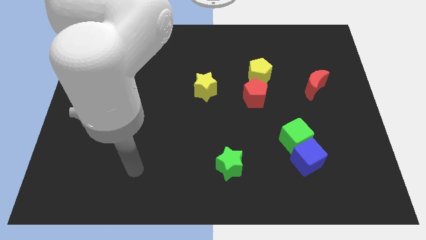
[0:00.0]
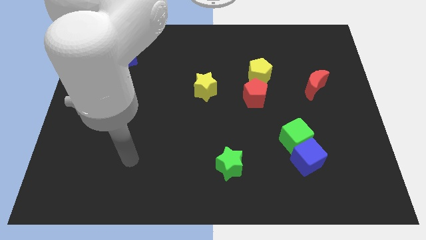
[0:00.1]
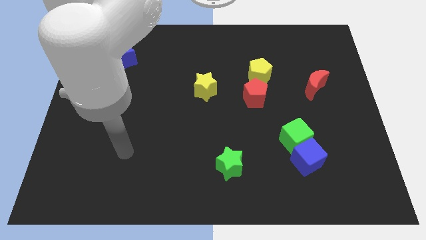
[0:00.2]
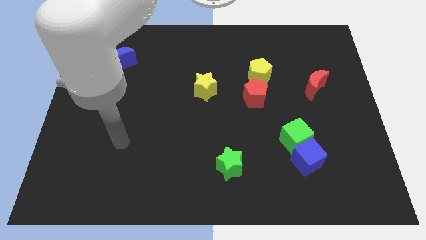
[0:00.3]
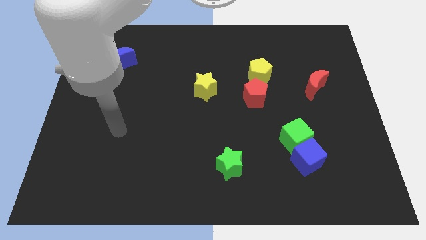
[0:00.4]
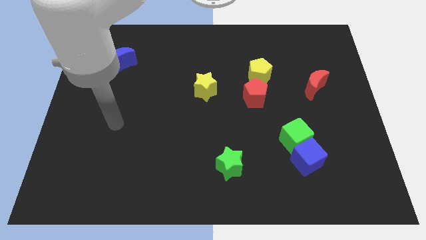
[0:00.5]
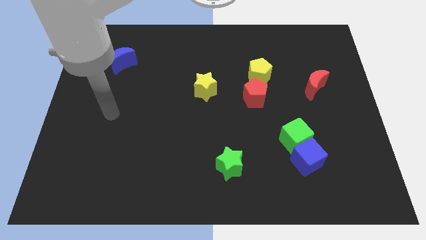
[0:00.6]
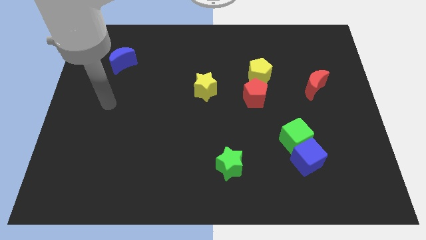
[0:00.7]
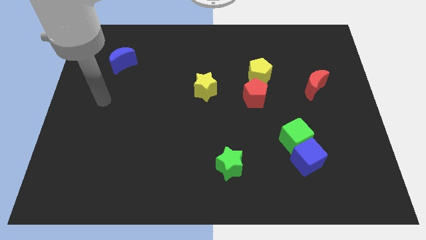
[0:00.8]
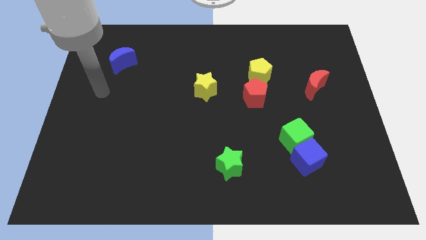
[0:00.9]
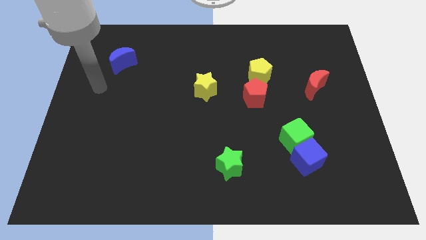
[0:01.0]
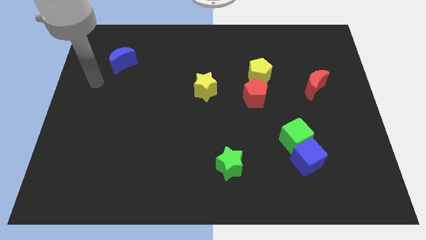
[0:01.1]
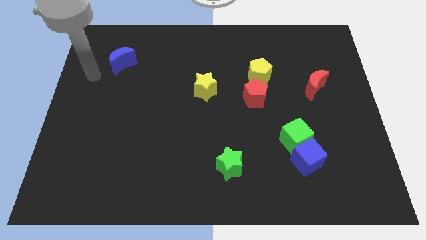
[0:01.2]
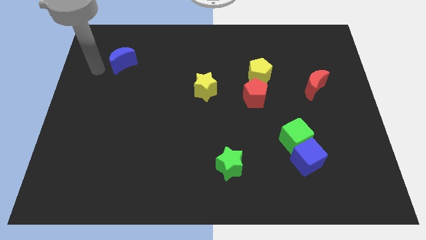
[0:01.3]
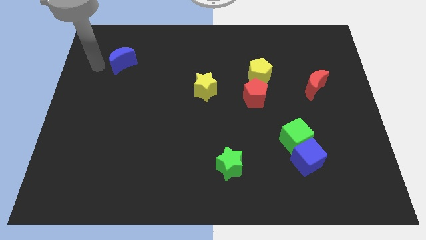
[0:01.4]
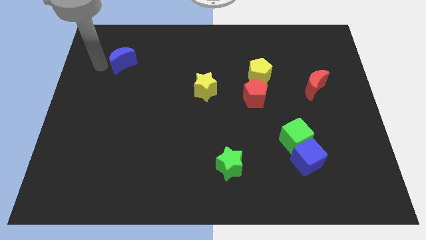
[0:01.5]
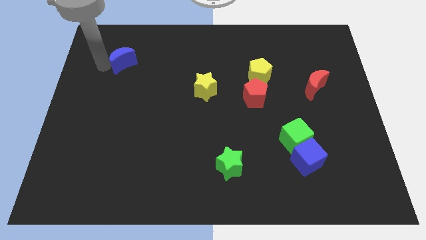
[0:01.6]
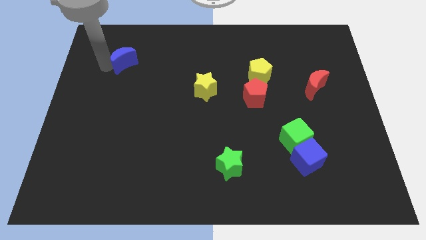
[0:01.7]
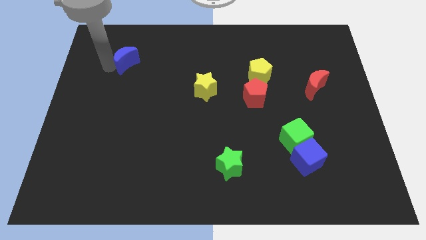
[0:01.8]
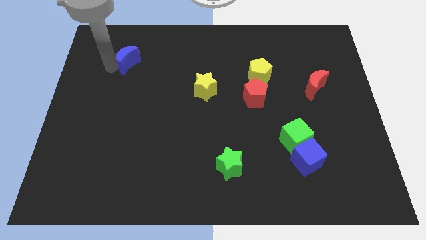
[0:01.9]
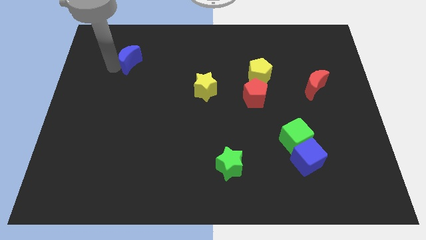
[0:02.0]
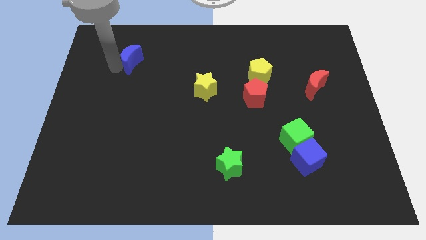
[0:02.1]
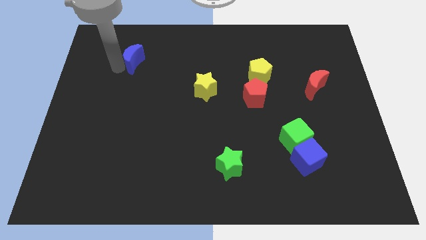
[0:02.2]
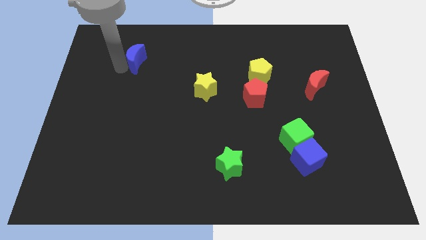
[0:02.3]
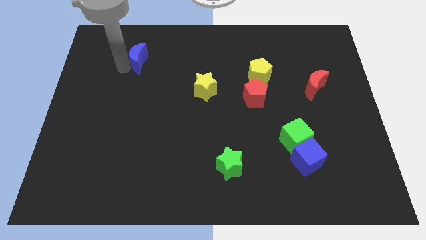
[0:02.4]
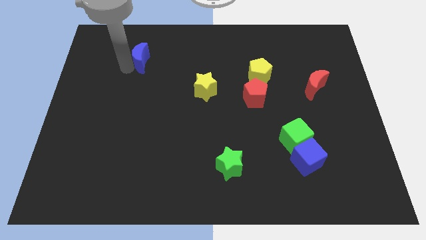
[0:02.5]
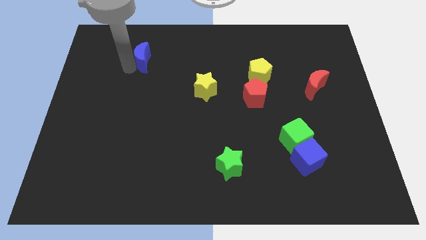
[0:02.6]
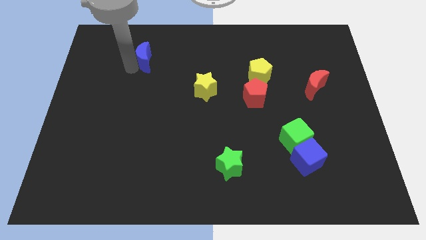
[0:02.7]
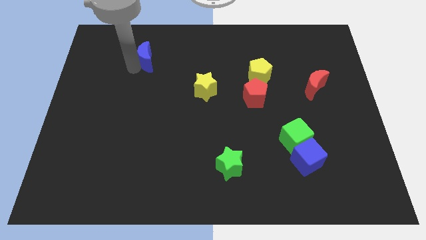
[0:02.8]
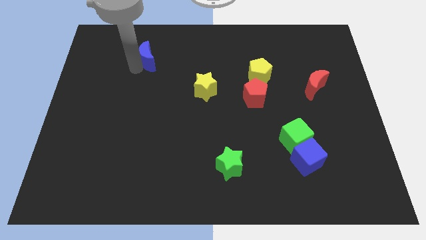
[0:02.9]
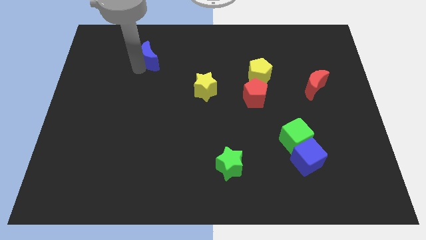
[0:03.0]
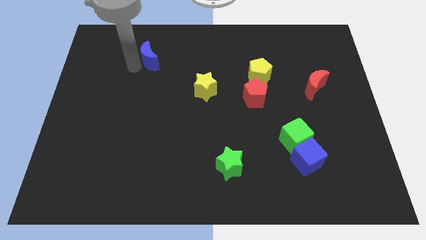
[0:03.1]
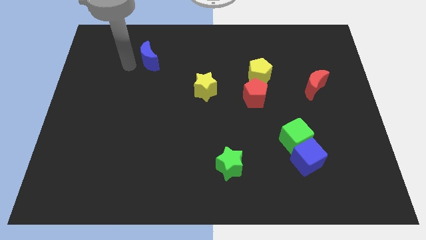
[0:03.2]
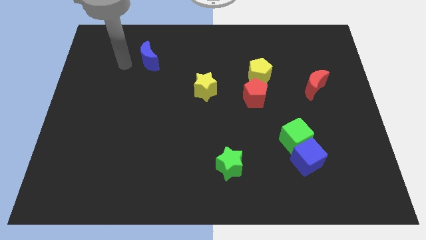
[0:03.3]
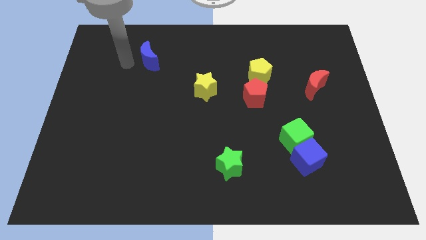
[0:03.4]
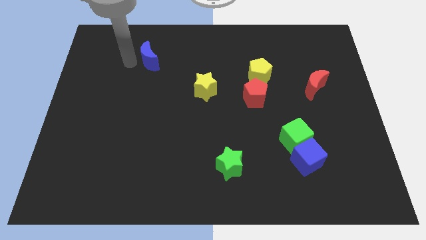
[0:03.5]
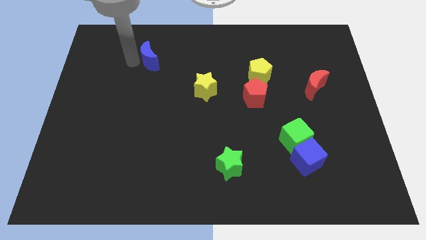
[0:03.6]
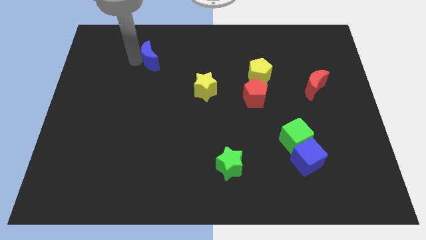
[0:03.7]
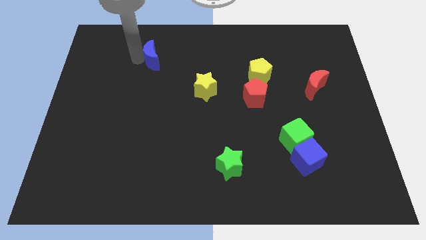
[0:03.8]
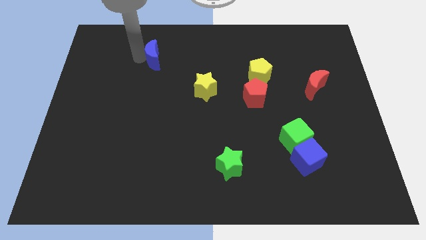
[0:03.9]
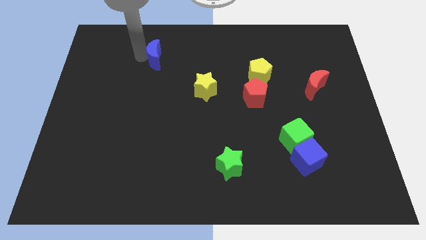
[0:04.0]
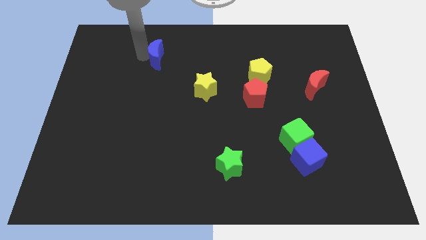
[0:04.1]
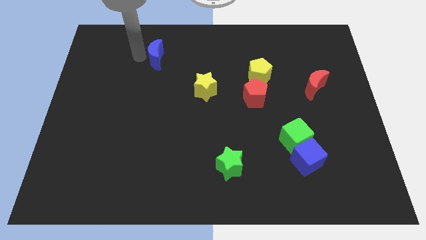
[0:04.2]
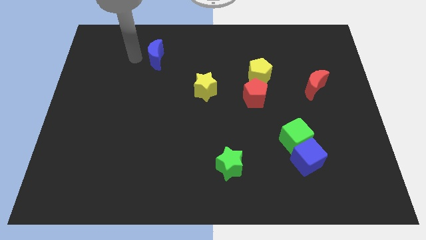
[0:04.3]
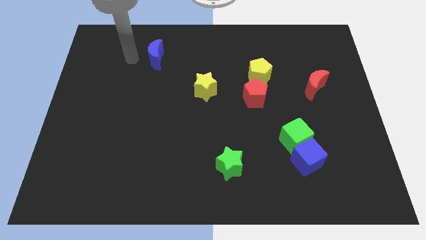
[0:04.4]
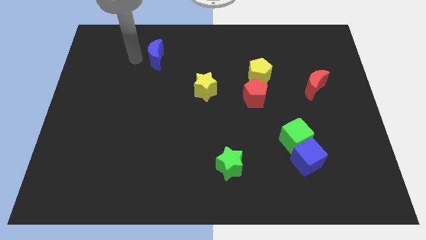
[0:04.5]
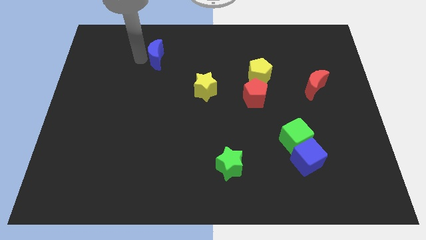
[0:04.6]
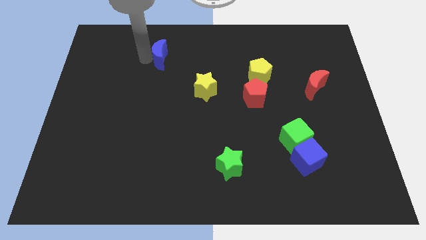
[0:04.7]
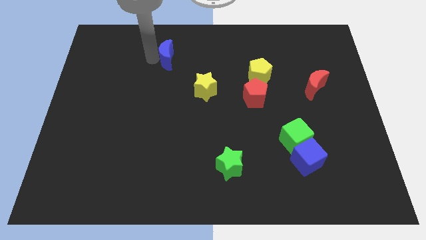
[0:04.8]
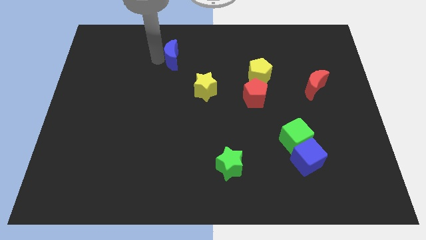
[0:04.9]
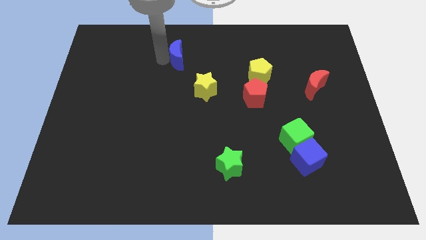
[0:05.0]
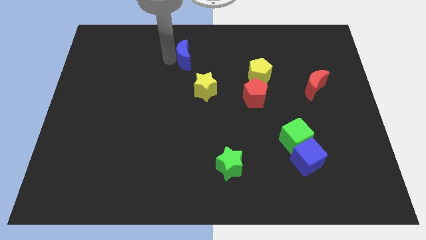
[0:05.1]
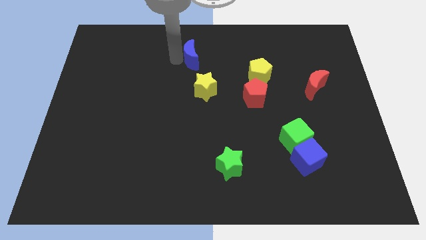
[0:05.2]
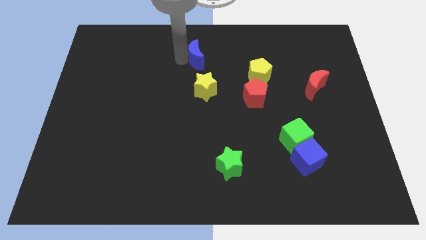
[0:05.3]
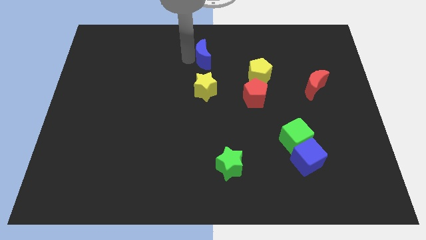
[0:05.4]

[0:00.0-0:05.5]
slide the blue moon right

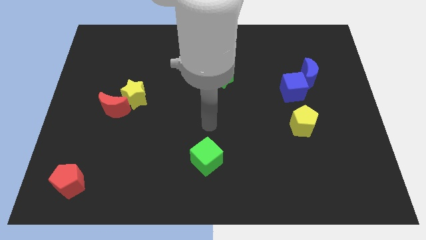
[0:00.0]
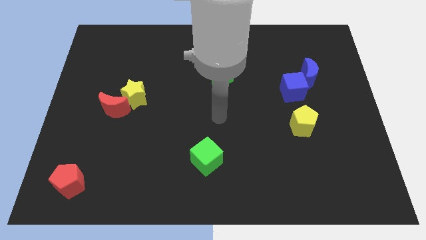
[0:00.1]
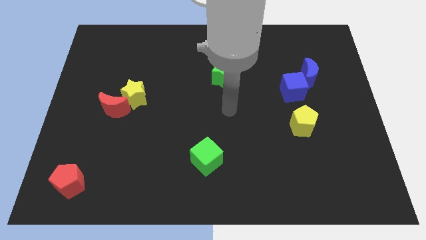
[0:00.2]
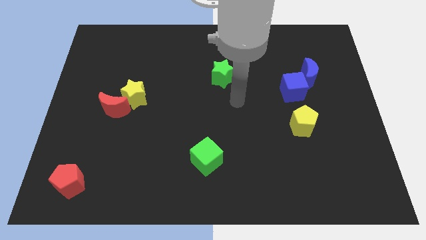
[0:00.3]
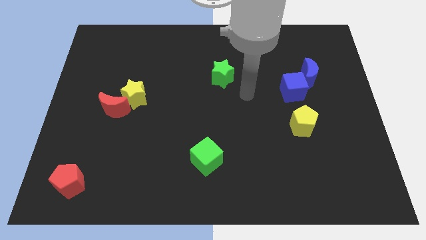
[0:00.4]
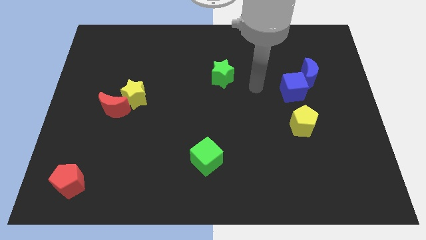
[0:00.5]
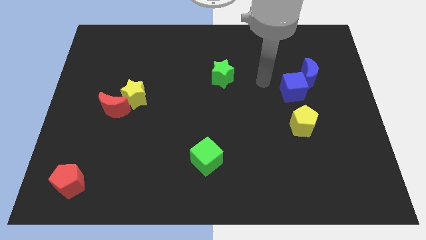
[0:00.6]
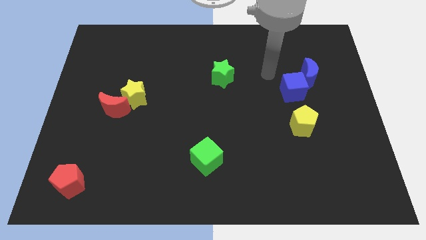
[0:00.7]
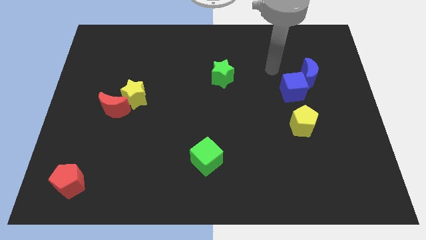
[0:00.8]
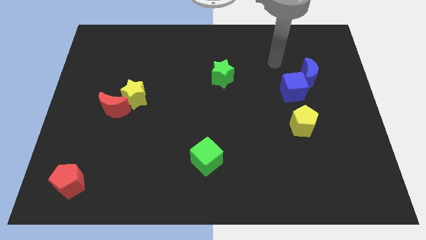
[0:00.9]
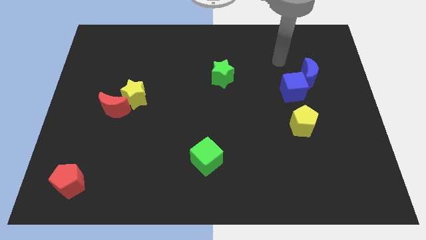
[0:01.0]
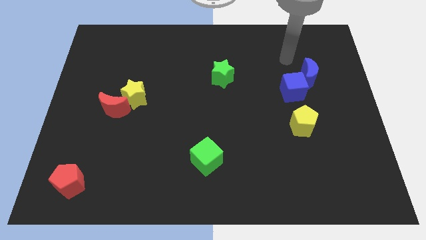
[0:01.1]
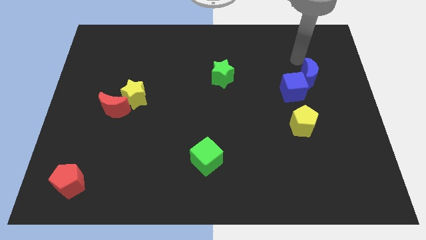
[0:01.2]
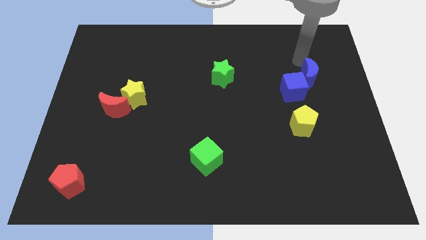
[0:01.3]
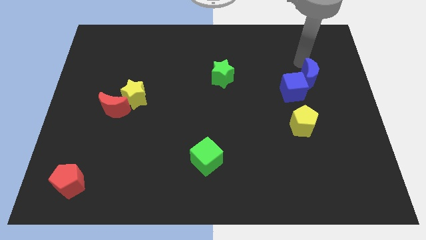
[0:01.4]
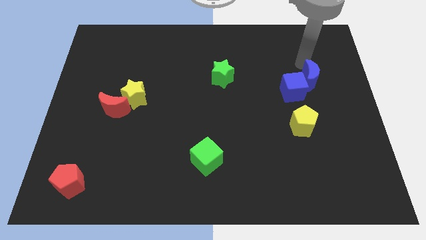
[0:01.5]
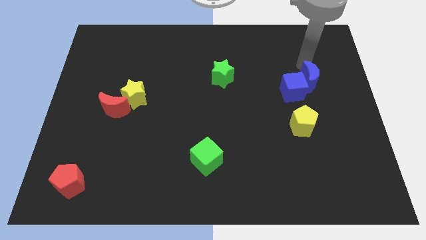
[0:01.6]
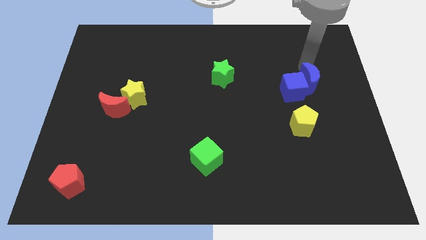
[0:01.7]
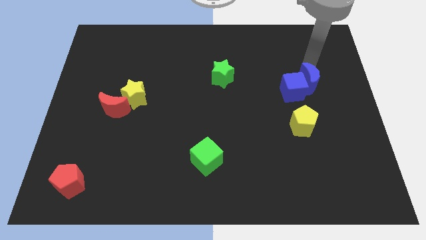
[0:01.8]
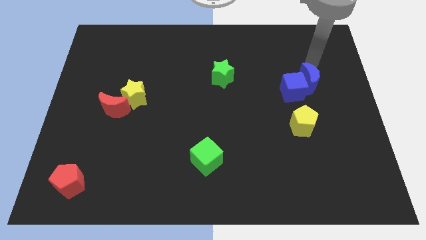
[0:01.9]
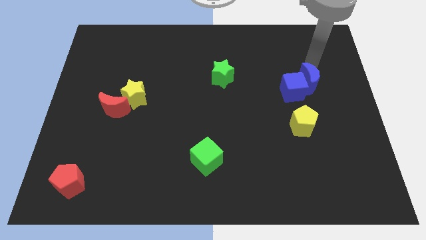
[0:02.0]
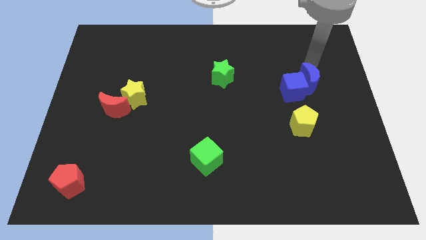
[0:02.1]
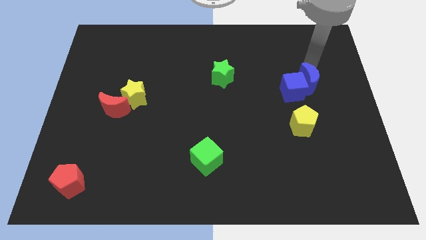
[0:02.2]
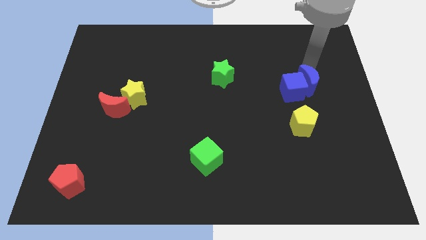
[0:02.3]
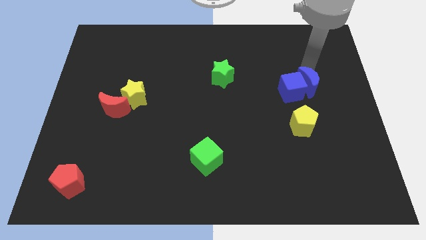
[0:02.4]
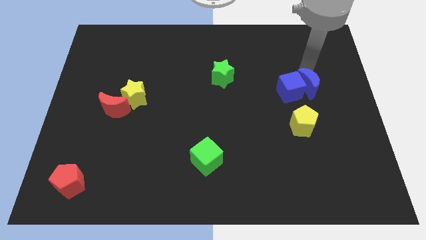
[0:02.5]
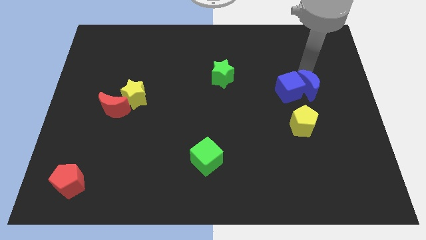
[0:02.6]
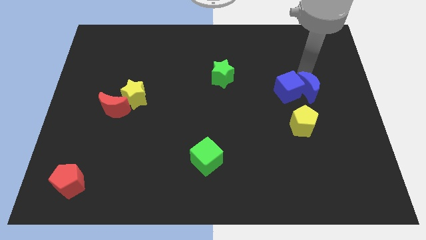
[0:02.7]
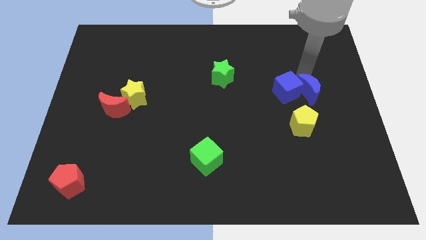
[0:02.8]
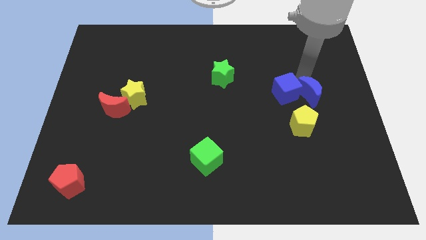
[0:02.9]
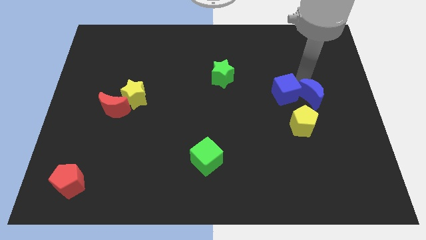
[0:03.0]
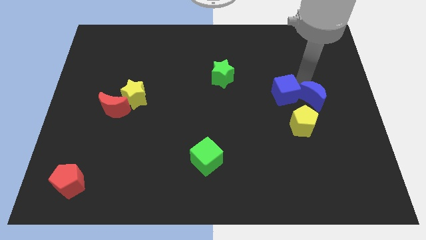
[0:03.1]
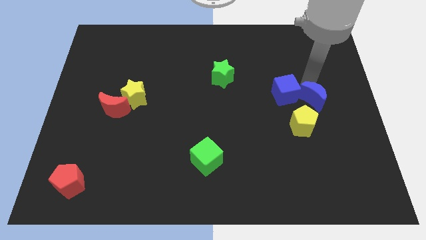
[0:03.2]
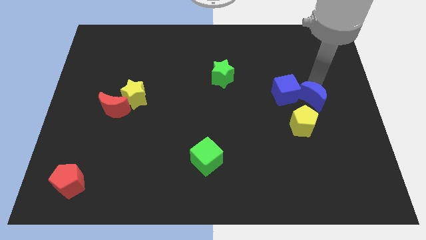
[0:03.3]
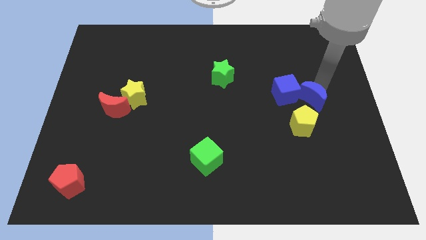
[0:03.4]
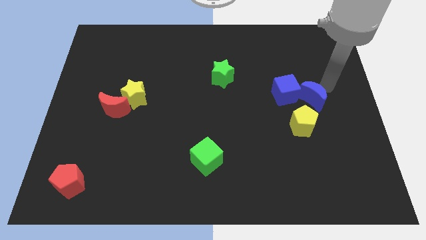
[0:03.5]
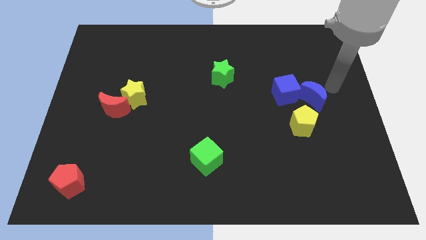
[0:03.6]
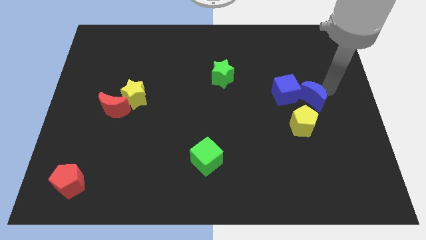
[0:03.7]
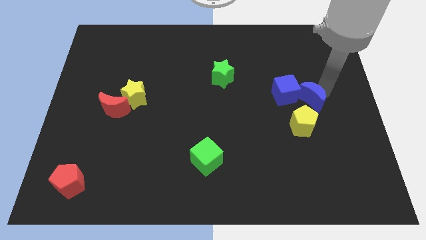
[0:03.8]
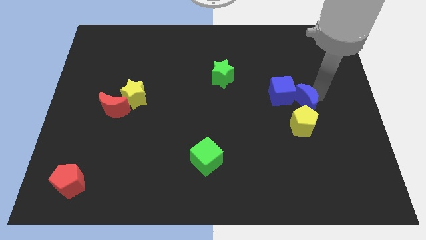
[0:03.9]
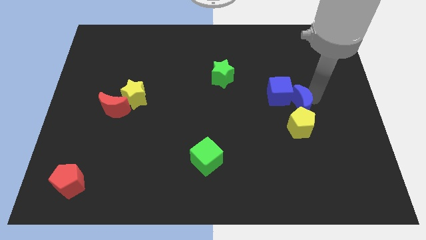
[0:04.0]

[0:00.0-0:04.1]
push the blue moon down and then left somewhat
